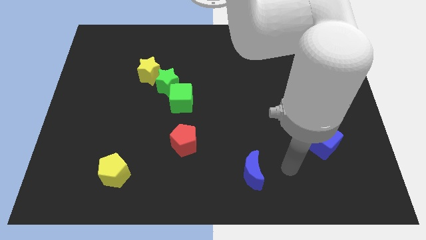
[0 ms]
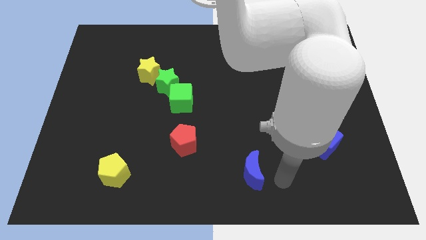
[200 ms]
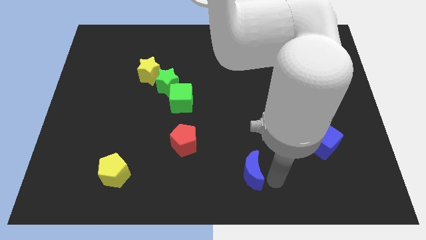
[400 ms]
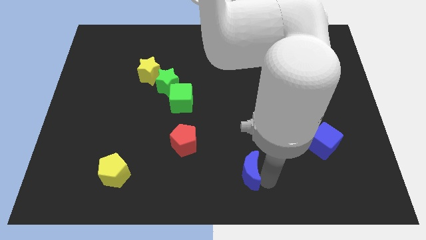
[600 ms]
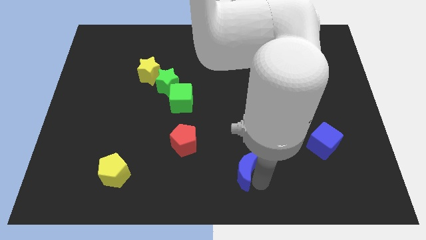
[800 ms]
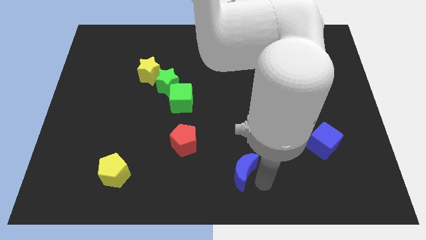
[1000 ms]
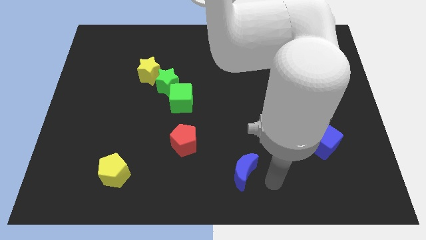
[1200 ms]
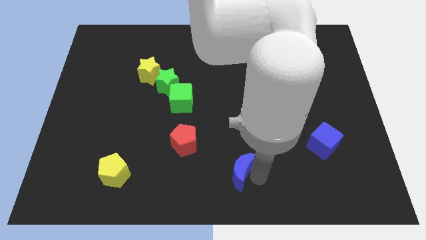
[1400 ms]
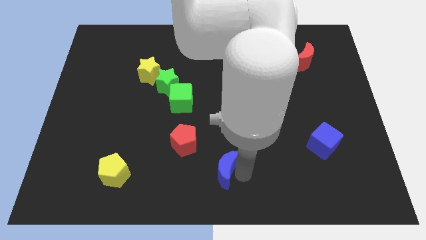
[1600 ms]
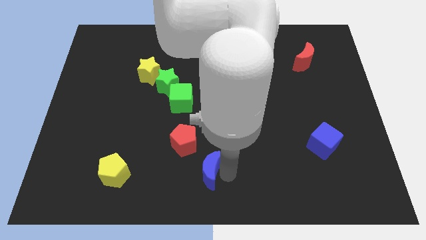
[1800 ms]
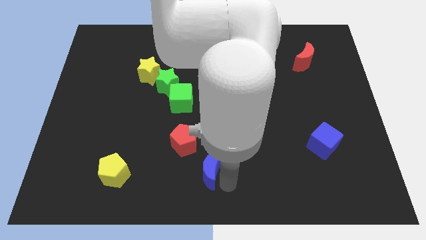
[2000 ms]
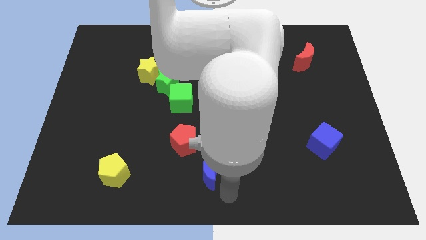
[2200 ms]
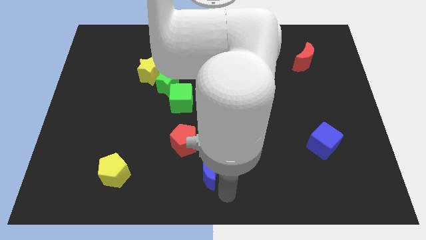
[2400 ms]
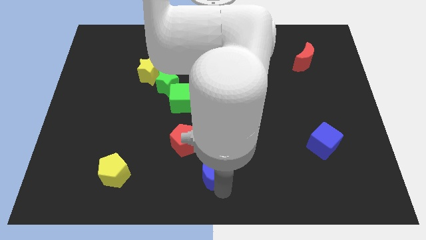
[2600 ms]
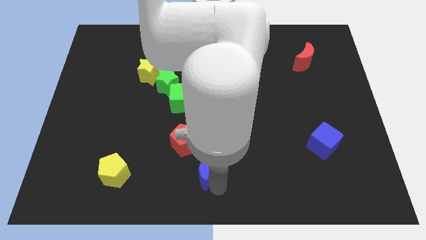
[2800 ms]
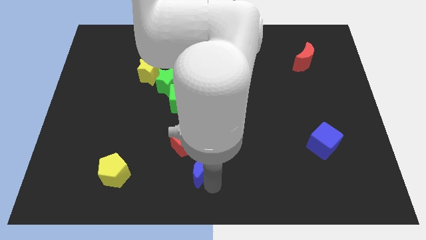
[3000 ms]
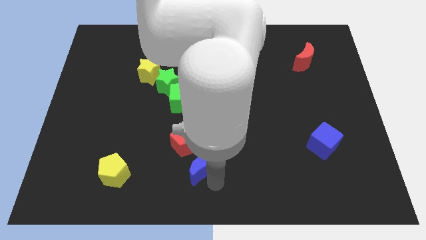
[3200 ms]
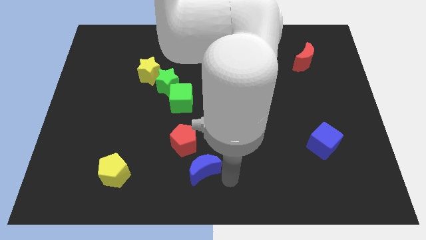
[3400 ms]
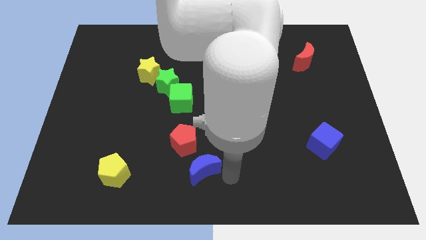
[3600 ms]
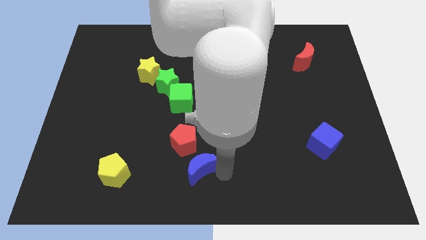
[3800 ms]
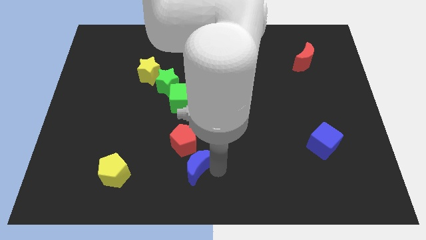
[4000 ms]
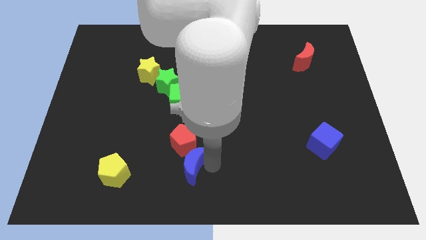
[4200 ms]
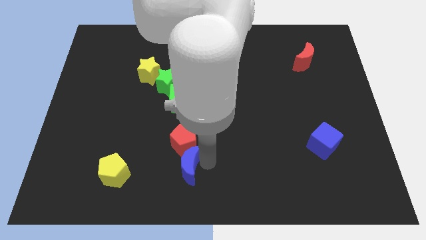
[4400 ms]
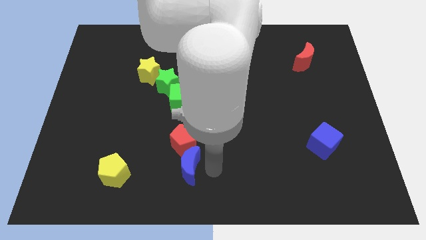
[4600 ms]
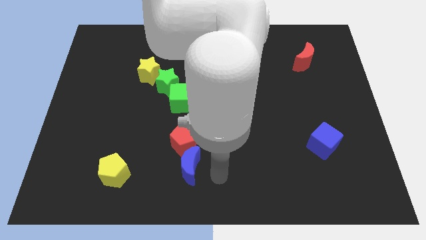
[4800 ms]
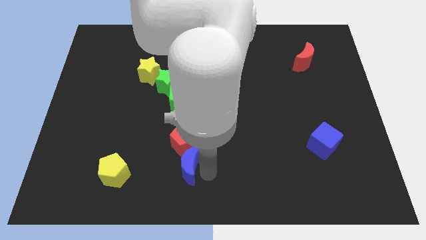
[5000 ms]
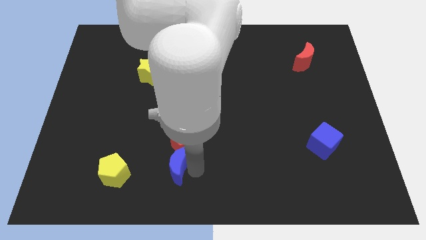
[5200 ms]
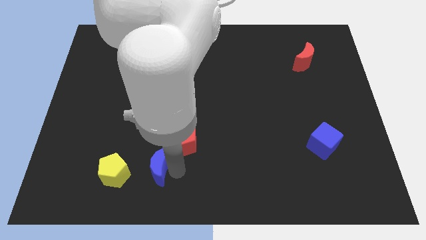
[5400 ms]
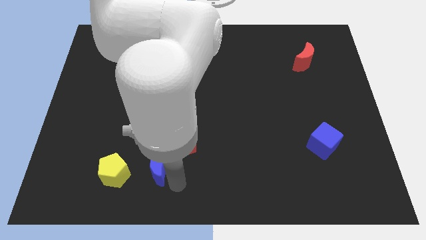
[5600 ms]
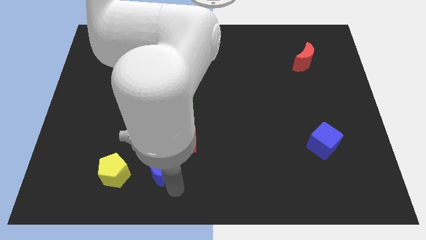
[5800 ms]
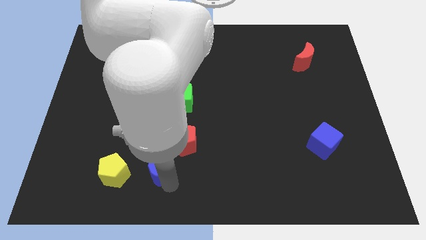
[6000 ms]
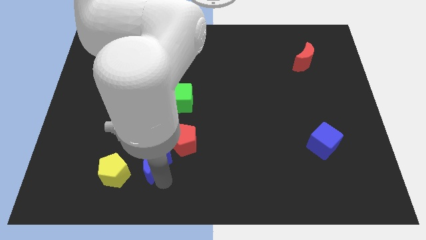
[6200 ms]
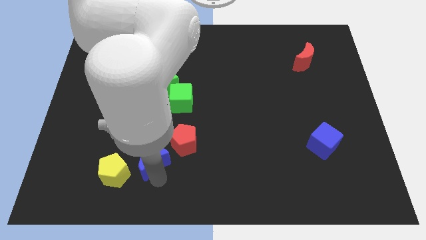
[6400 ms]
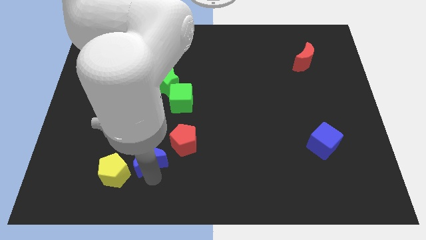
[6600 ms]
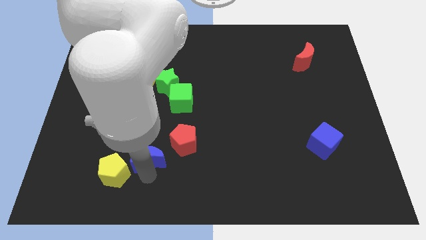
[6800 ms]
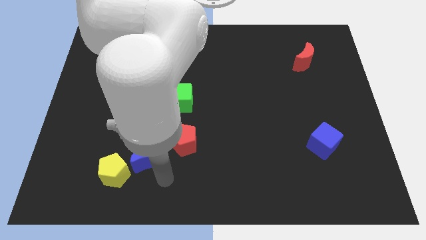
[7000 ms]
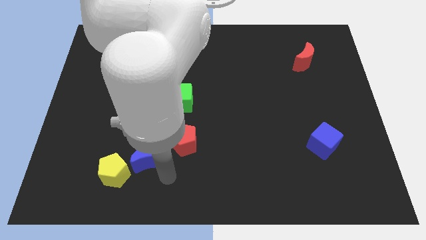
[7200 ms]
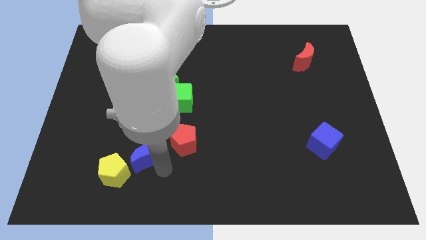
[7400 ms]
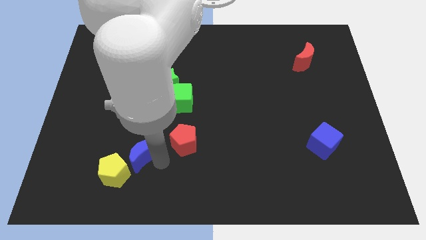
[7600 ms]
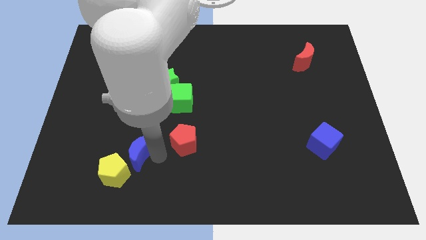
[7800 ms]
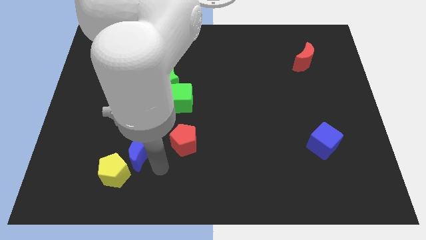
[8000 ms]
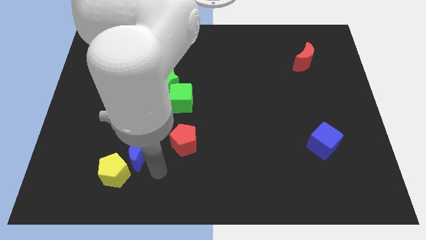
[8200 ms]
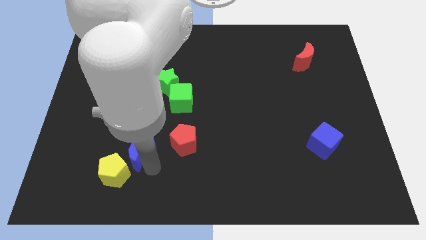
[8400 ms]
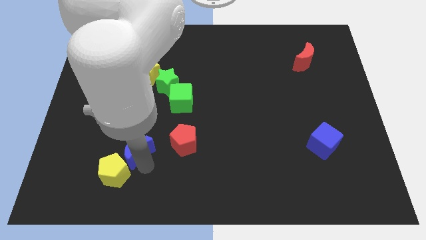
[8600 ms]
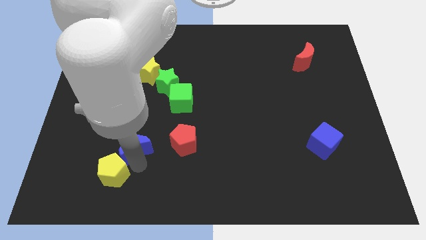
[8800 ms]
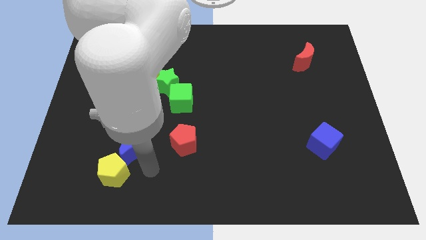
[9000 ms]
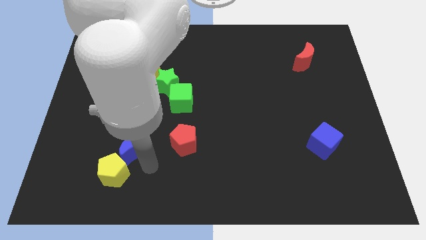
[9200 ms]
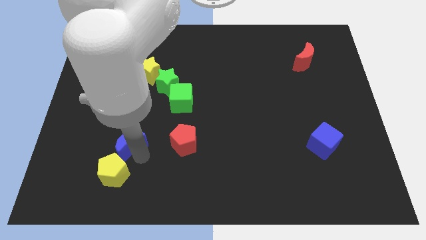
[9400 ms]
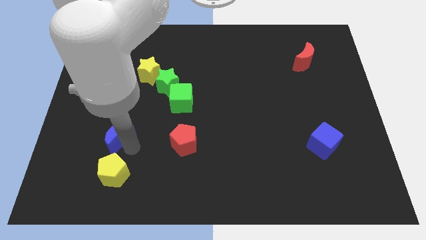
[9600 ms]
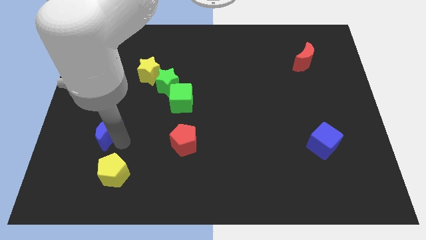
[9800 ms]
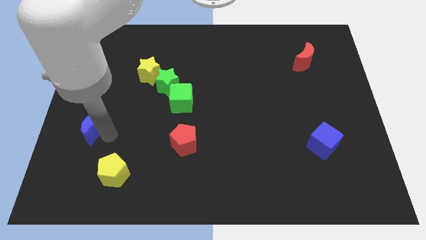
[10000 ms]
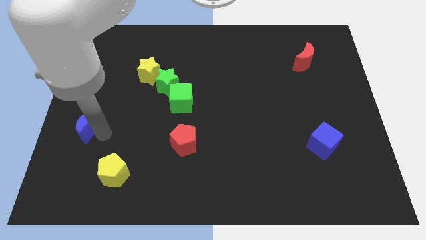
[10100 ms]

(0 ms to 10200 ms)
put the blue moon to the left side

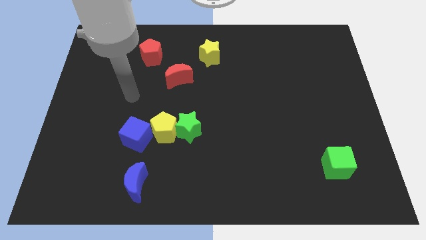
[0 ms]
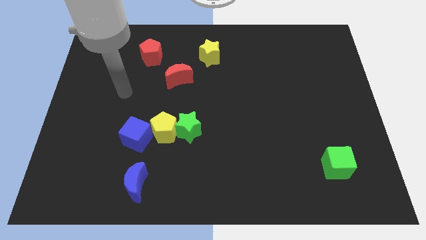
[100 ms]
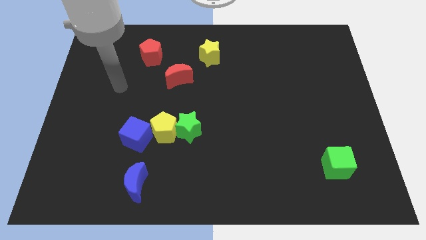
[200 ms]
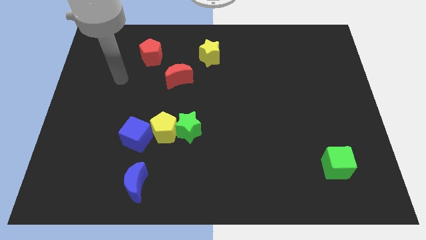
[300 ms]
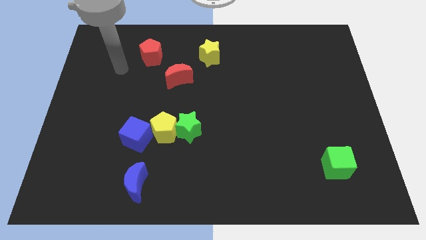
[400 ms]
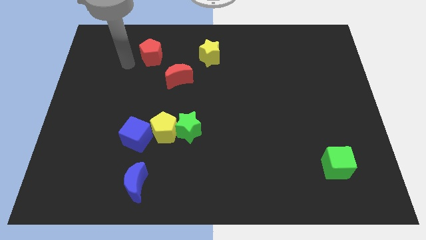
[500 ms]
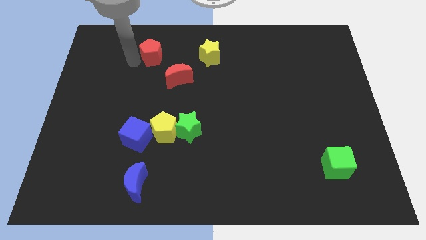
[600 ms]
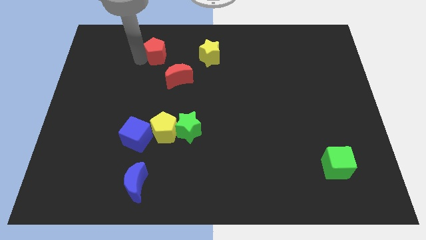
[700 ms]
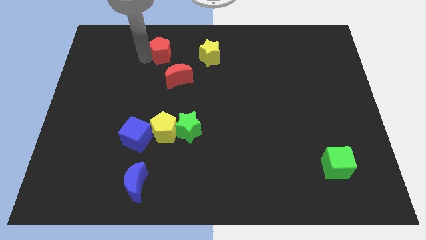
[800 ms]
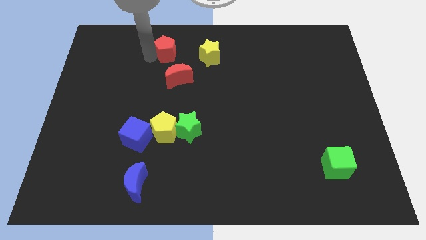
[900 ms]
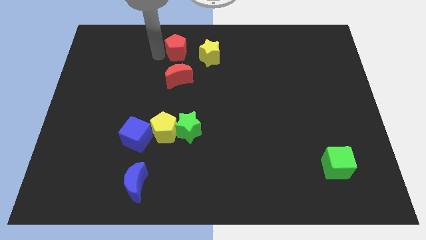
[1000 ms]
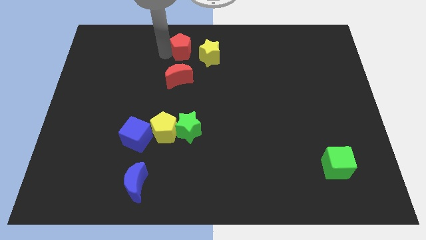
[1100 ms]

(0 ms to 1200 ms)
put the red pentagon to the top
